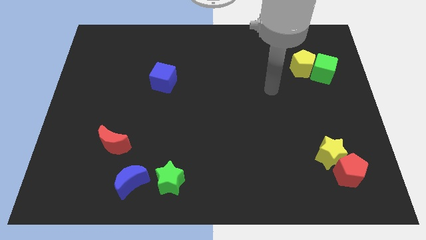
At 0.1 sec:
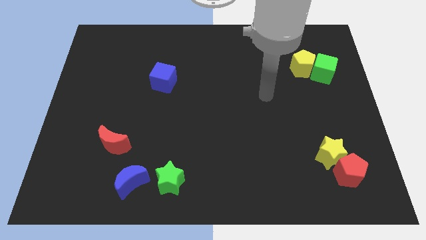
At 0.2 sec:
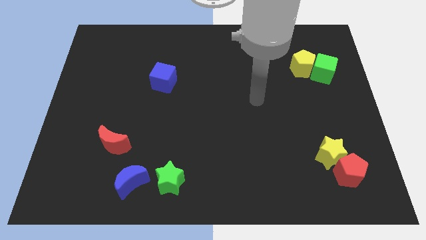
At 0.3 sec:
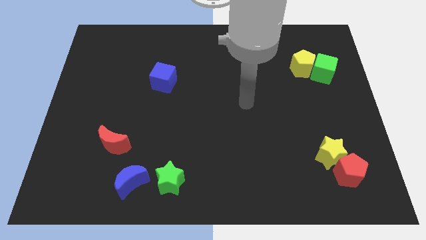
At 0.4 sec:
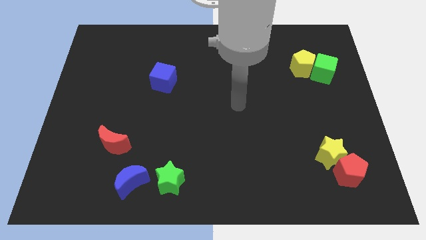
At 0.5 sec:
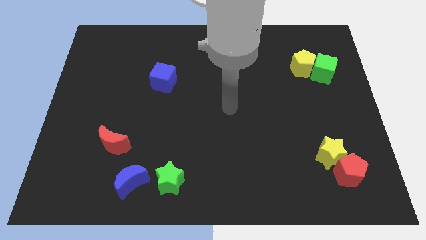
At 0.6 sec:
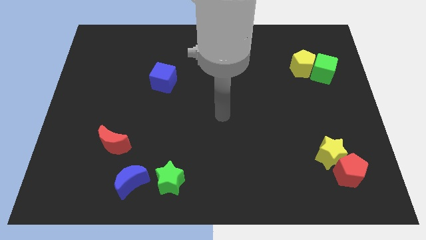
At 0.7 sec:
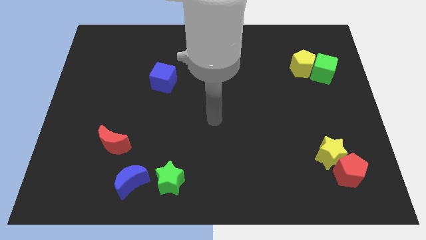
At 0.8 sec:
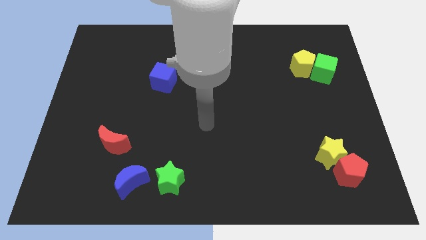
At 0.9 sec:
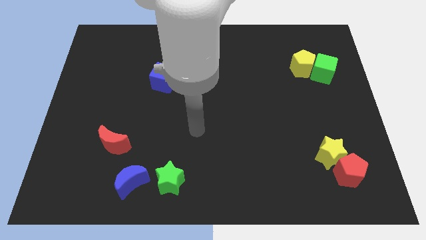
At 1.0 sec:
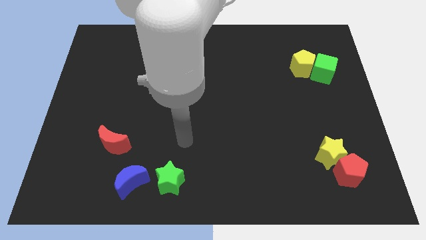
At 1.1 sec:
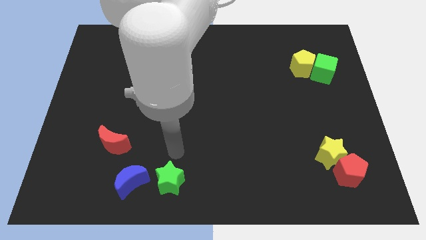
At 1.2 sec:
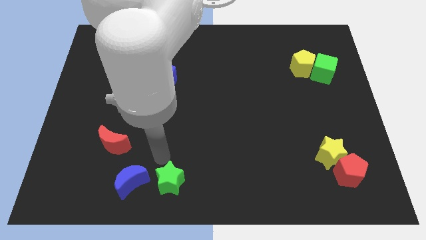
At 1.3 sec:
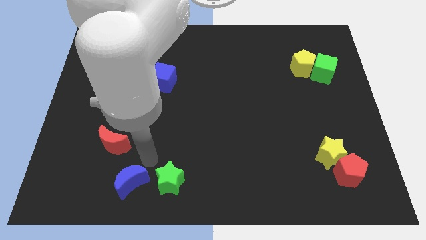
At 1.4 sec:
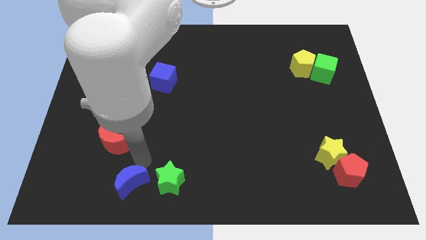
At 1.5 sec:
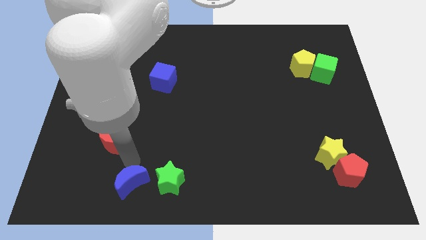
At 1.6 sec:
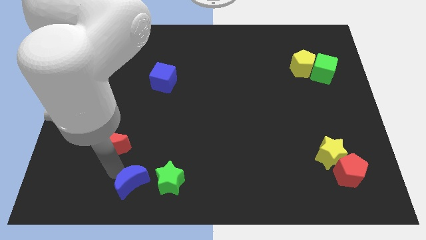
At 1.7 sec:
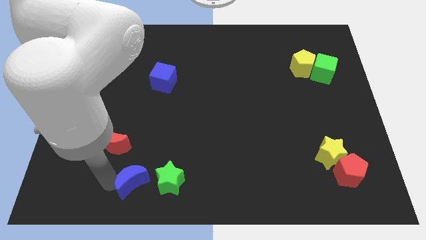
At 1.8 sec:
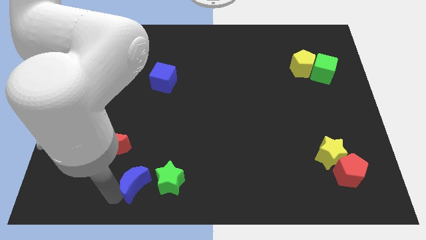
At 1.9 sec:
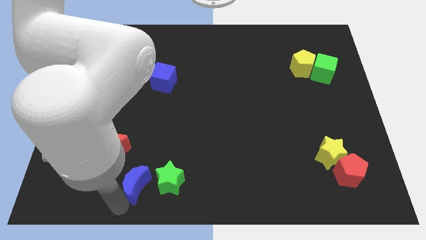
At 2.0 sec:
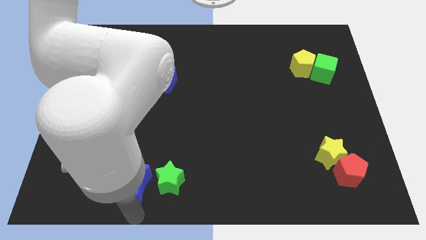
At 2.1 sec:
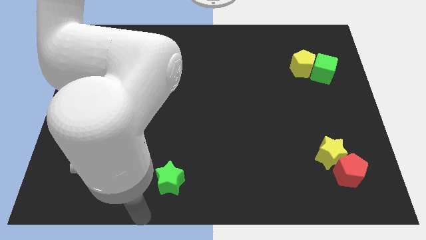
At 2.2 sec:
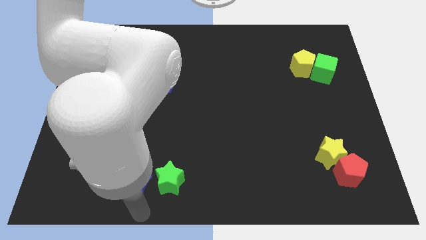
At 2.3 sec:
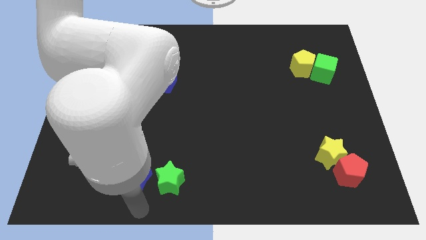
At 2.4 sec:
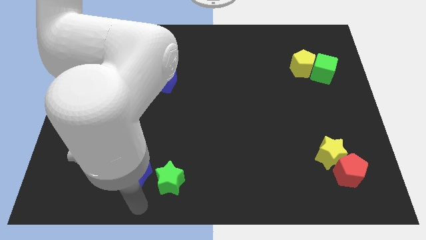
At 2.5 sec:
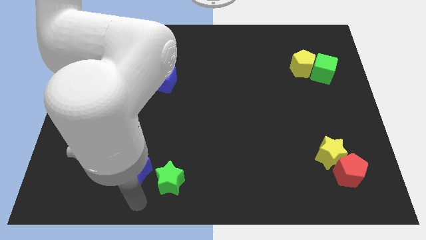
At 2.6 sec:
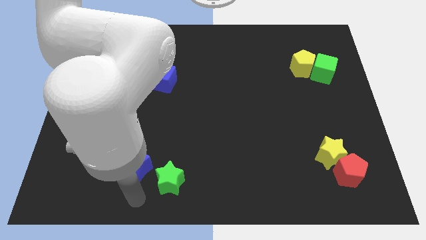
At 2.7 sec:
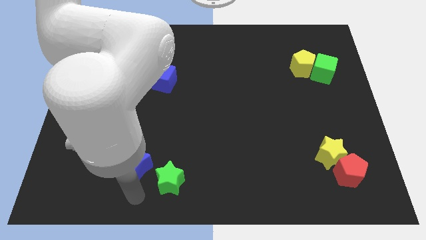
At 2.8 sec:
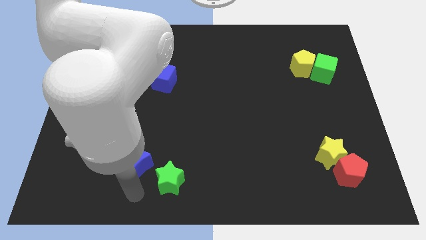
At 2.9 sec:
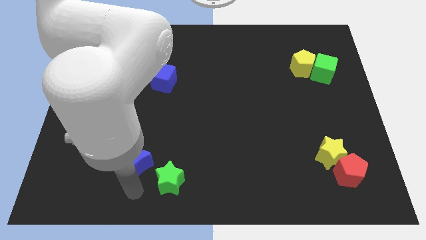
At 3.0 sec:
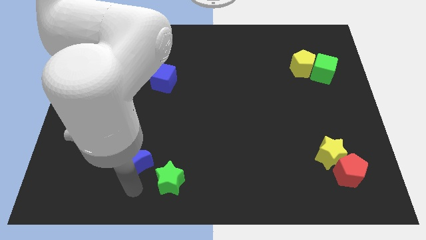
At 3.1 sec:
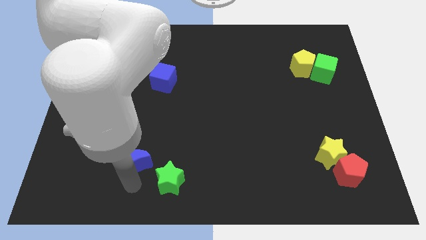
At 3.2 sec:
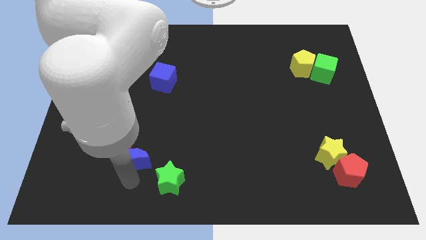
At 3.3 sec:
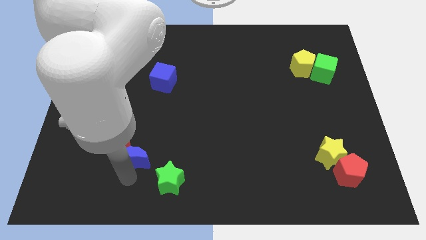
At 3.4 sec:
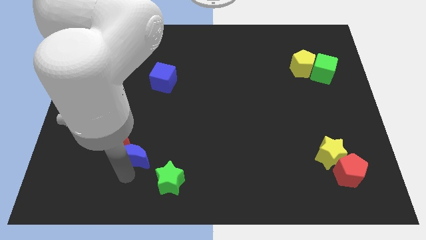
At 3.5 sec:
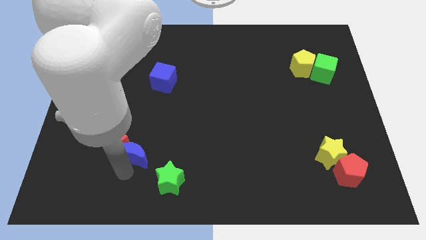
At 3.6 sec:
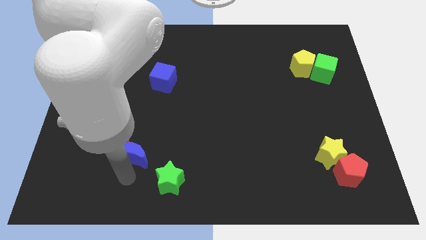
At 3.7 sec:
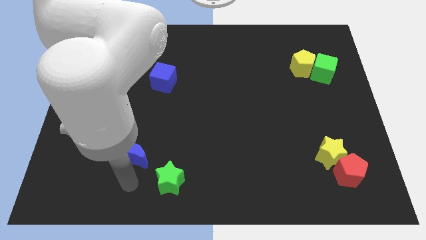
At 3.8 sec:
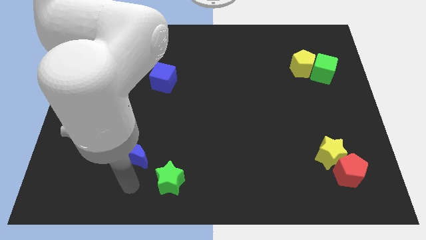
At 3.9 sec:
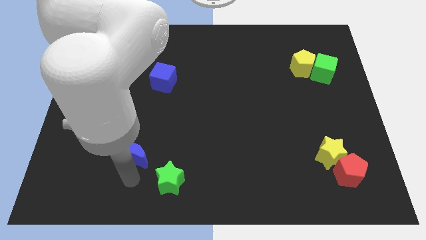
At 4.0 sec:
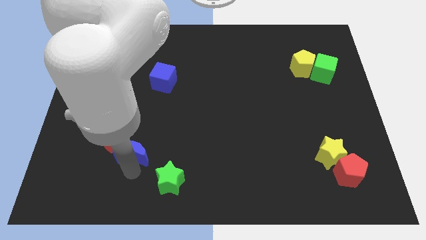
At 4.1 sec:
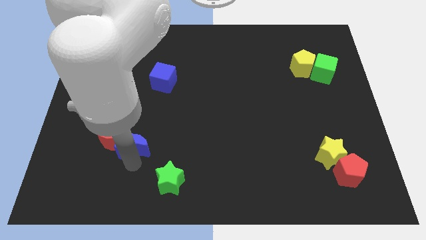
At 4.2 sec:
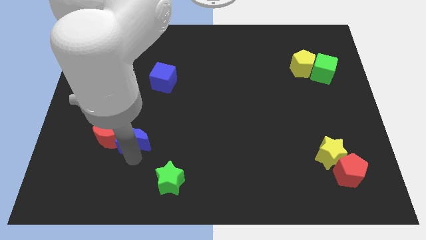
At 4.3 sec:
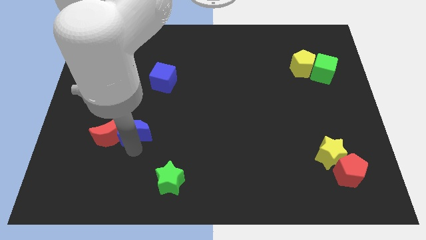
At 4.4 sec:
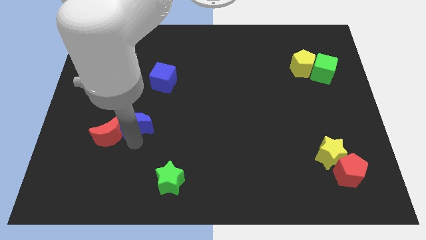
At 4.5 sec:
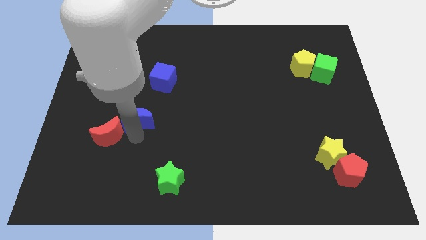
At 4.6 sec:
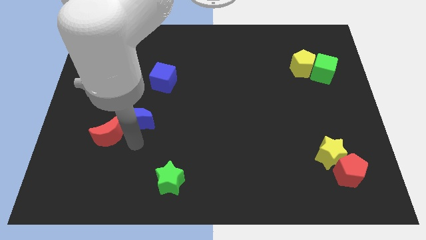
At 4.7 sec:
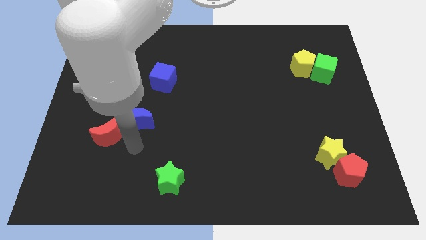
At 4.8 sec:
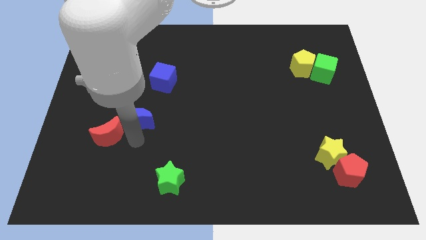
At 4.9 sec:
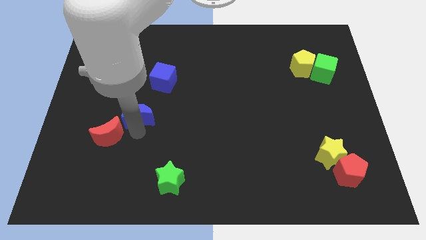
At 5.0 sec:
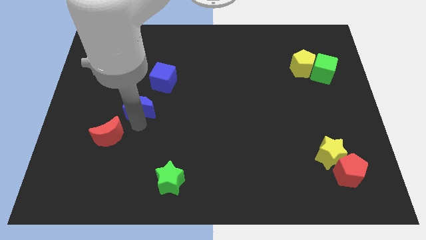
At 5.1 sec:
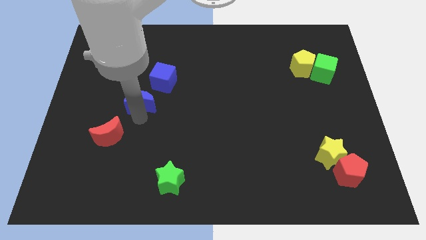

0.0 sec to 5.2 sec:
push the blue moon up

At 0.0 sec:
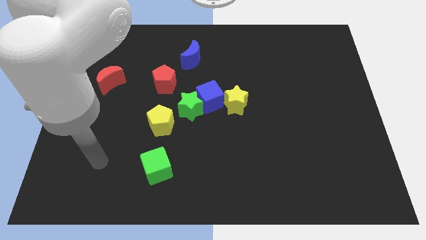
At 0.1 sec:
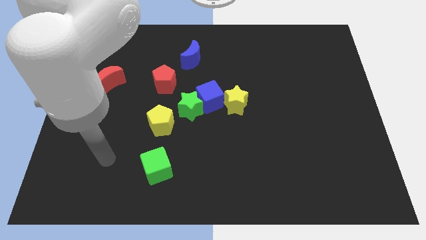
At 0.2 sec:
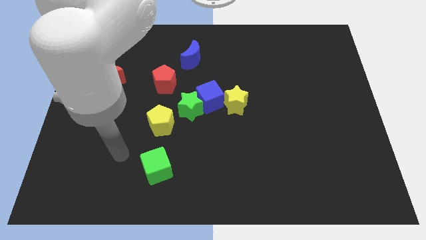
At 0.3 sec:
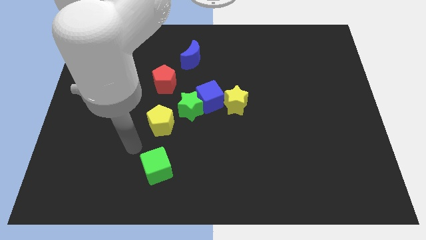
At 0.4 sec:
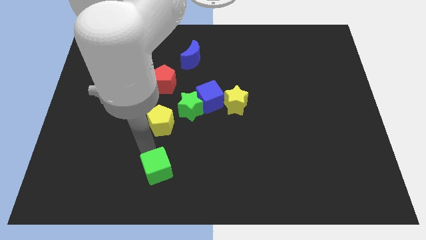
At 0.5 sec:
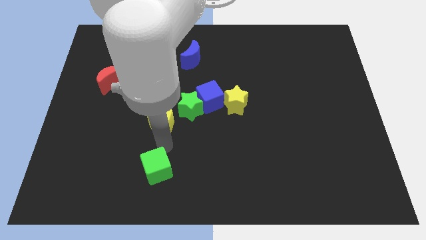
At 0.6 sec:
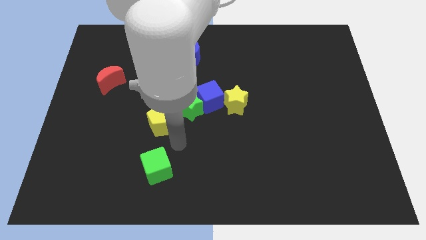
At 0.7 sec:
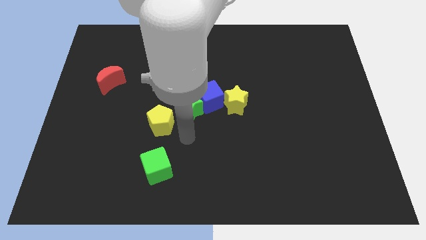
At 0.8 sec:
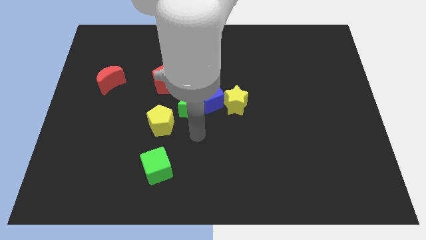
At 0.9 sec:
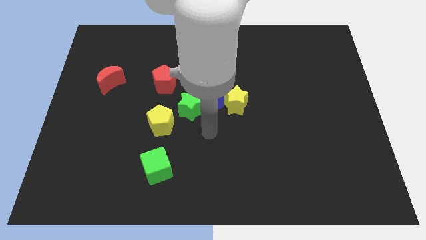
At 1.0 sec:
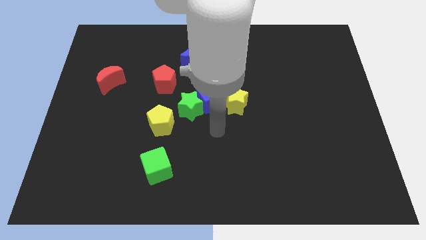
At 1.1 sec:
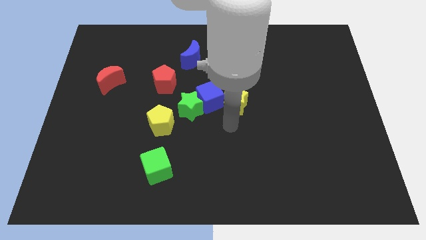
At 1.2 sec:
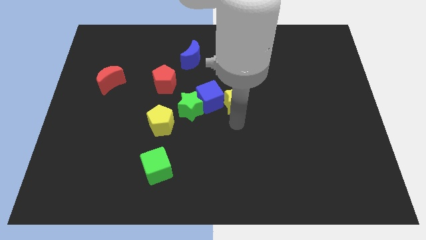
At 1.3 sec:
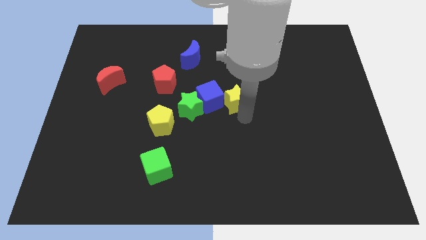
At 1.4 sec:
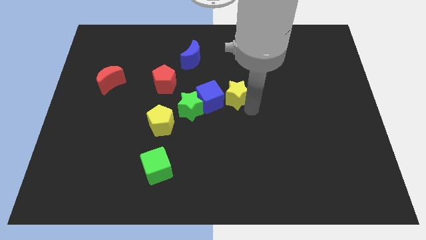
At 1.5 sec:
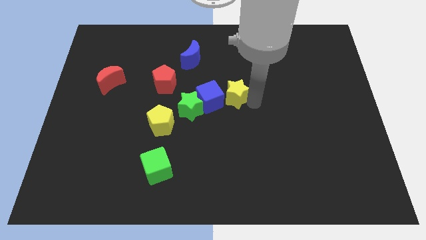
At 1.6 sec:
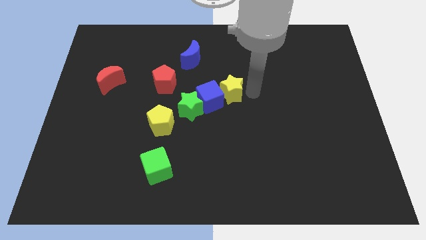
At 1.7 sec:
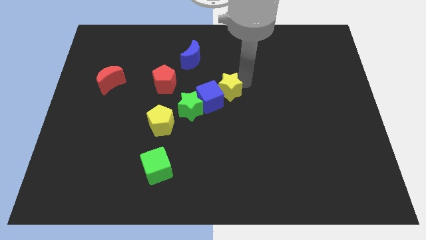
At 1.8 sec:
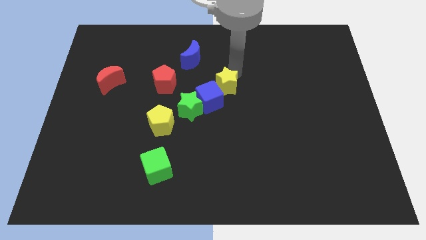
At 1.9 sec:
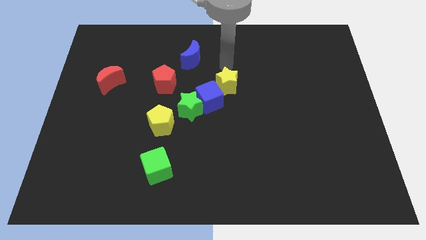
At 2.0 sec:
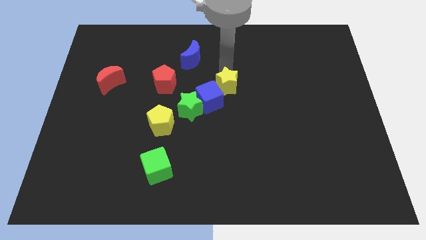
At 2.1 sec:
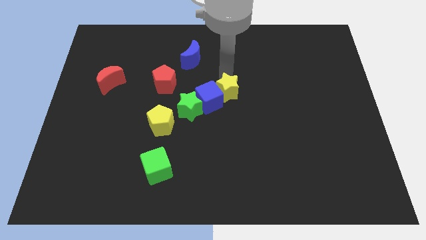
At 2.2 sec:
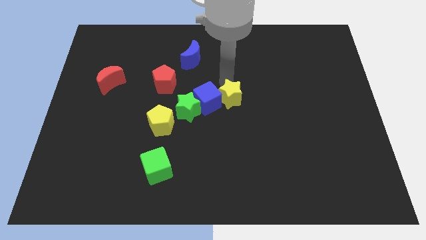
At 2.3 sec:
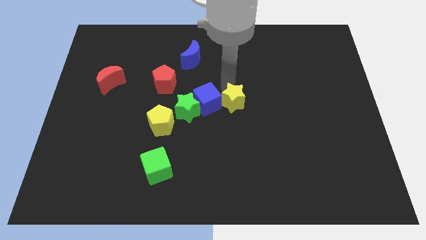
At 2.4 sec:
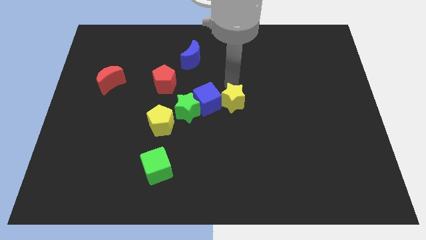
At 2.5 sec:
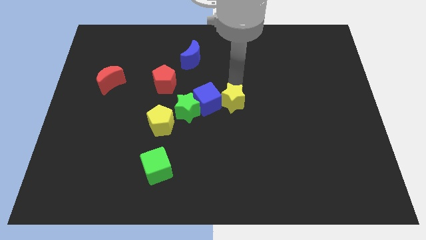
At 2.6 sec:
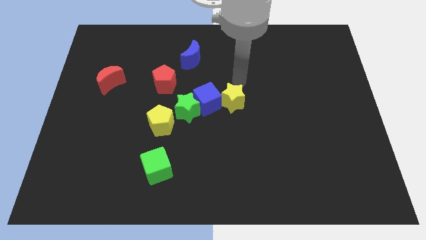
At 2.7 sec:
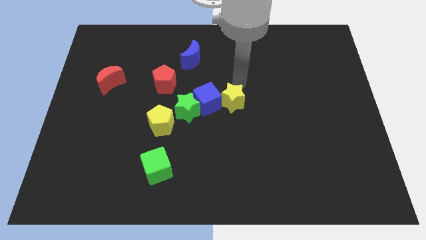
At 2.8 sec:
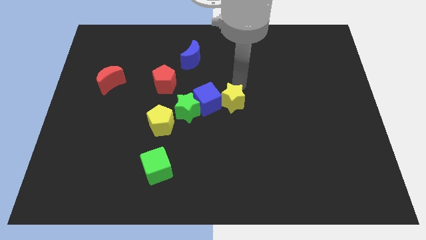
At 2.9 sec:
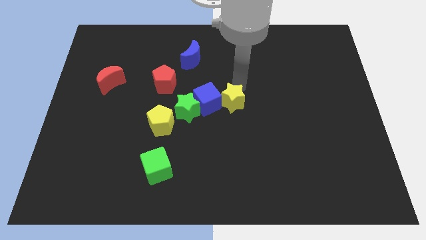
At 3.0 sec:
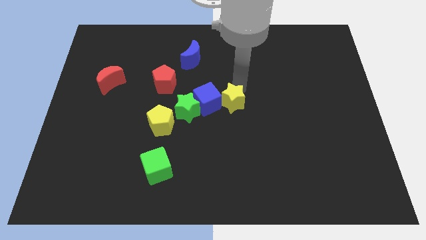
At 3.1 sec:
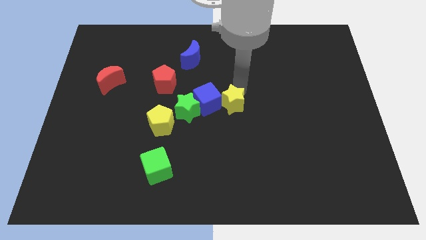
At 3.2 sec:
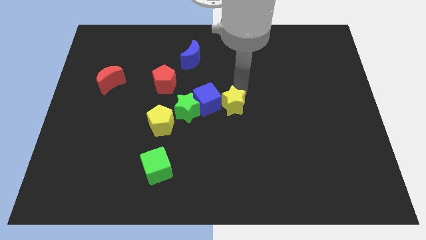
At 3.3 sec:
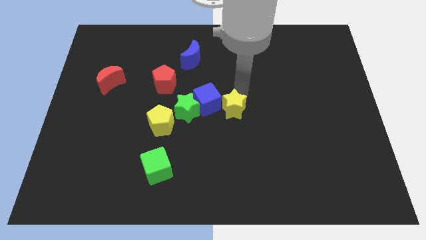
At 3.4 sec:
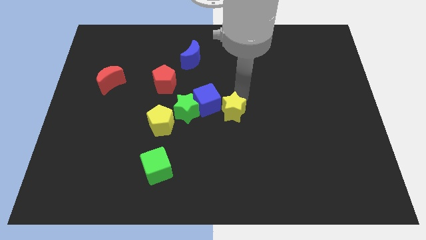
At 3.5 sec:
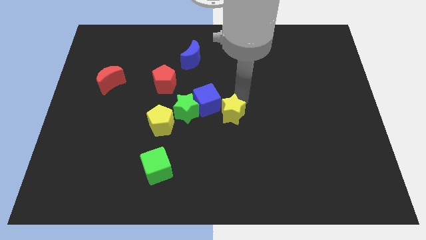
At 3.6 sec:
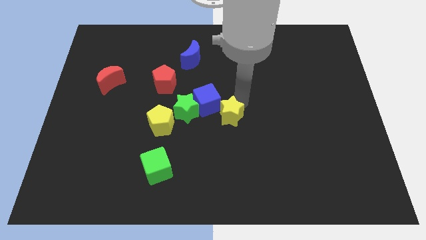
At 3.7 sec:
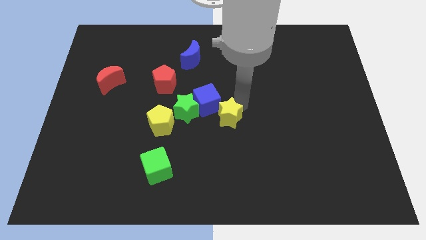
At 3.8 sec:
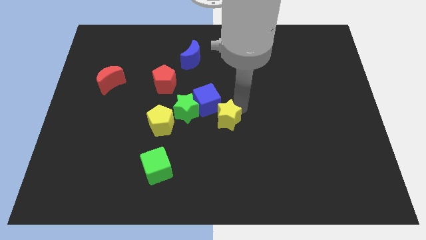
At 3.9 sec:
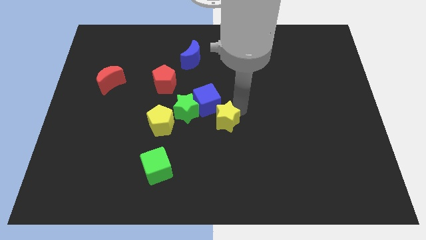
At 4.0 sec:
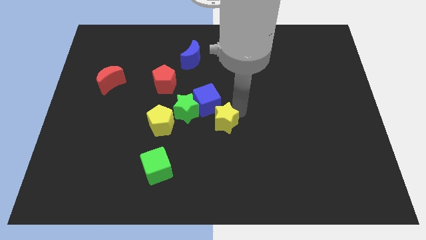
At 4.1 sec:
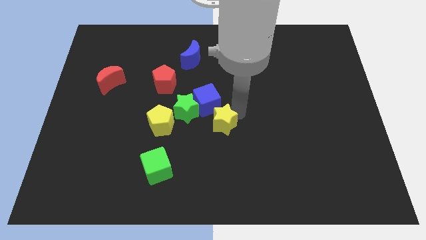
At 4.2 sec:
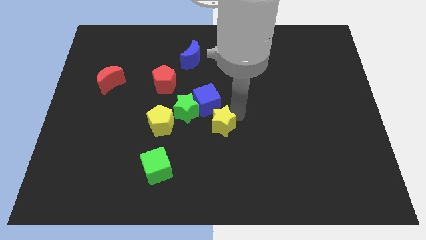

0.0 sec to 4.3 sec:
slide the yellow star a little bit diagonally down and to the left
